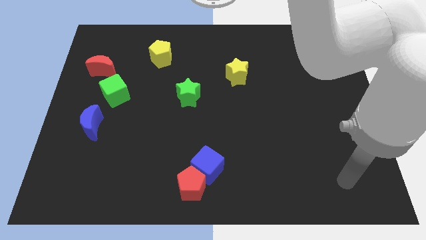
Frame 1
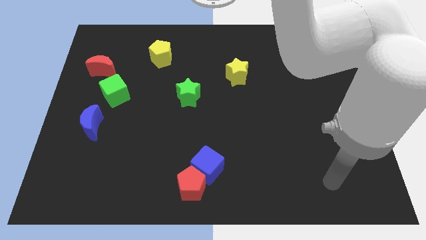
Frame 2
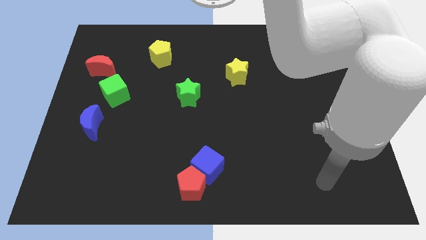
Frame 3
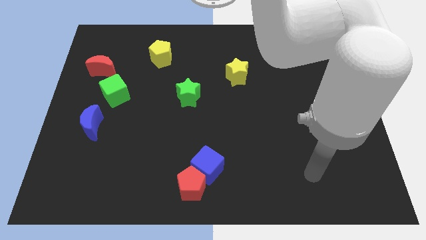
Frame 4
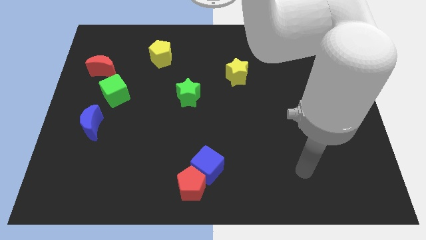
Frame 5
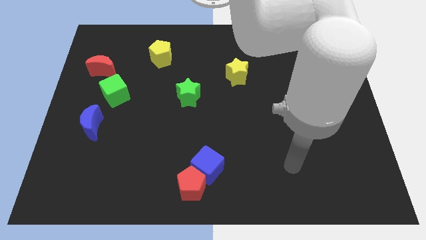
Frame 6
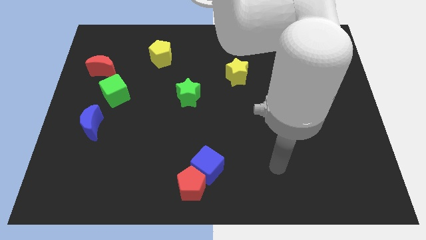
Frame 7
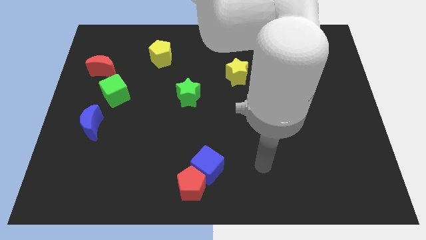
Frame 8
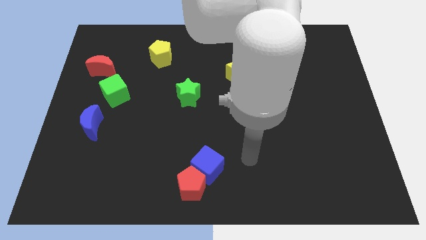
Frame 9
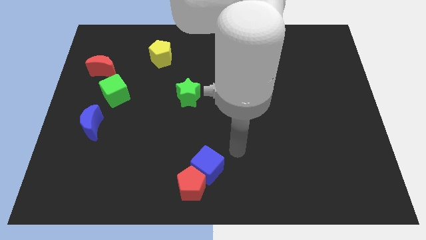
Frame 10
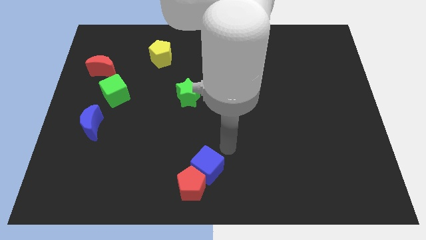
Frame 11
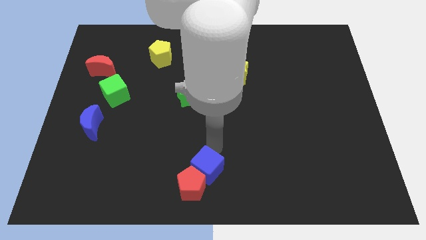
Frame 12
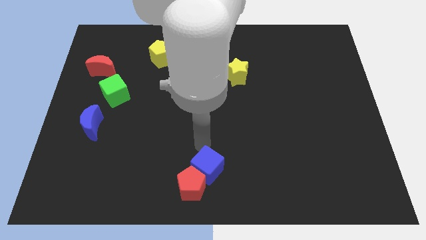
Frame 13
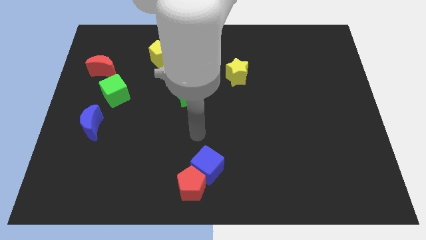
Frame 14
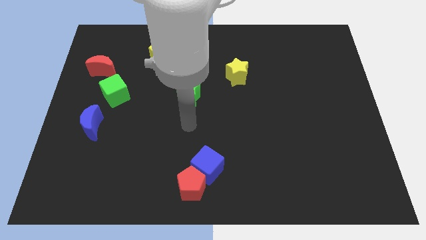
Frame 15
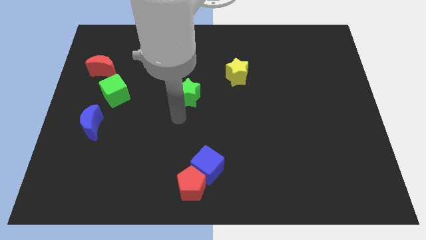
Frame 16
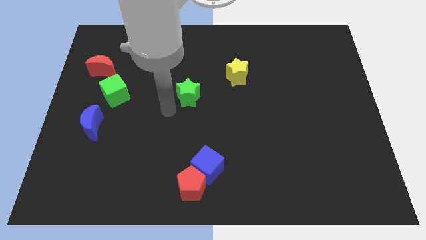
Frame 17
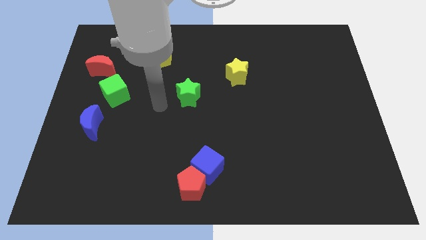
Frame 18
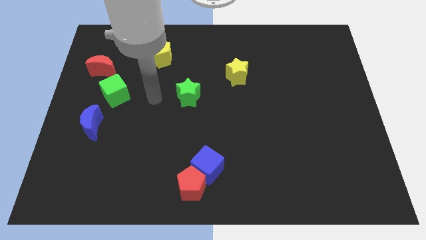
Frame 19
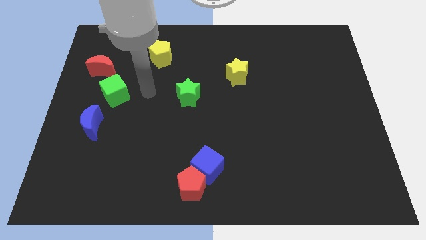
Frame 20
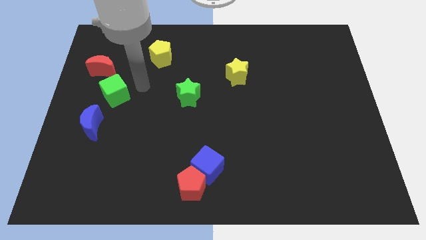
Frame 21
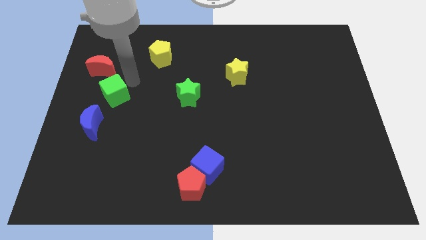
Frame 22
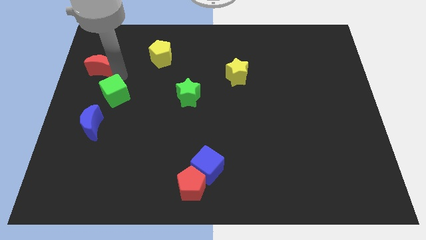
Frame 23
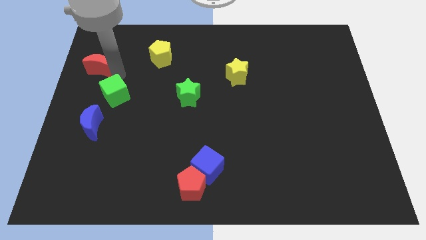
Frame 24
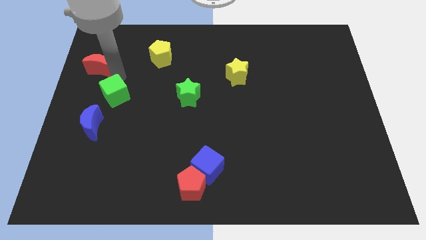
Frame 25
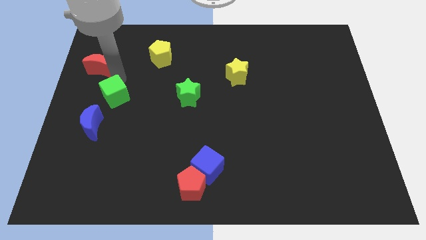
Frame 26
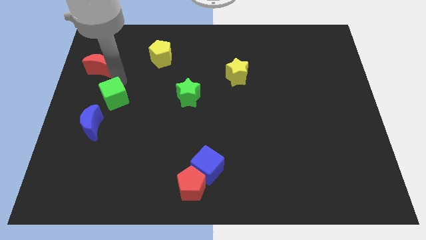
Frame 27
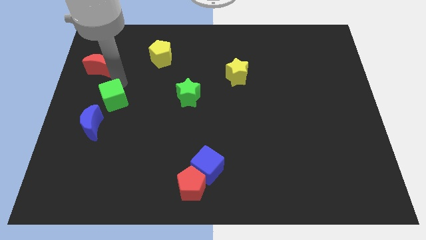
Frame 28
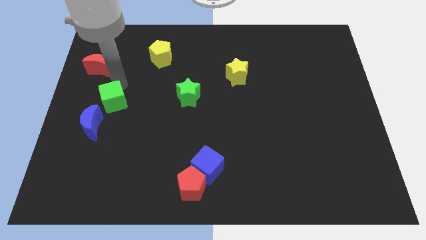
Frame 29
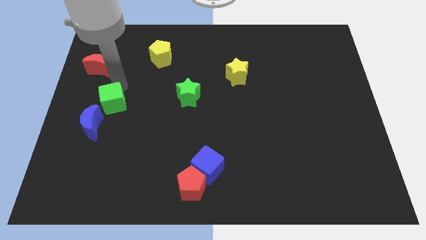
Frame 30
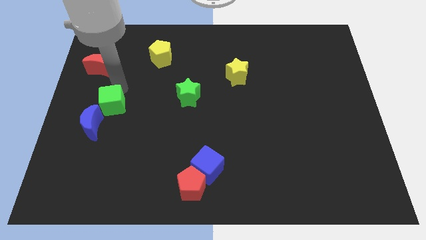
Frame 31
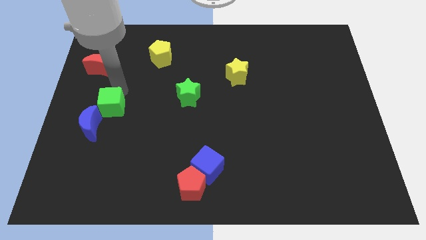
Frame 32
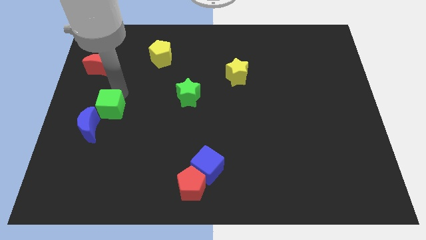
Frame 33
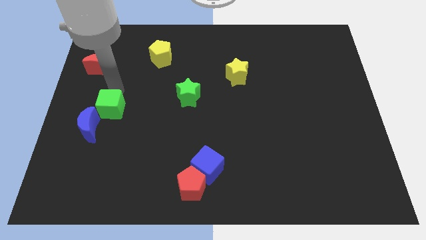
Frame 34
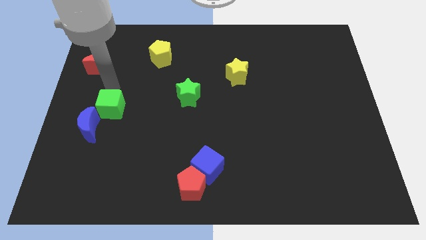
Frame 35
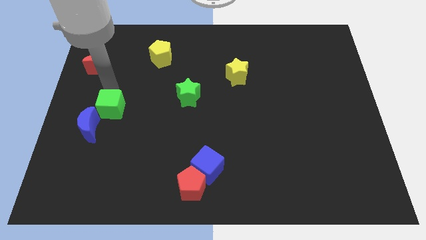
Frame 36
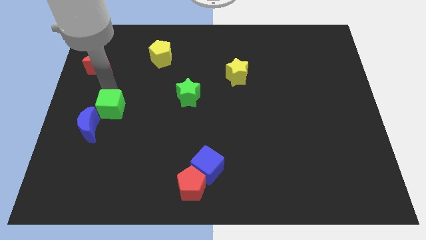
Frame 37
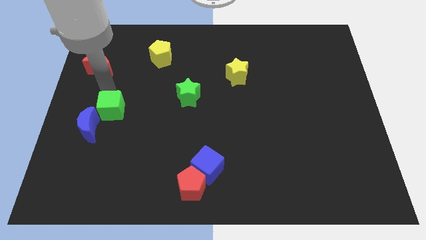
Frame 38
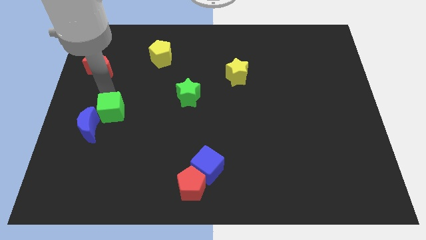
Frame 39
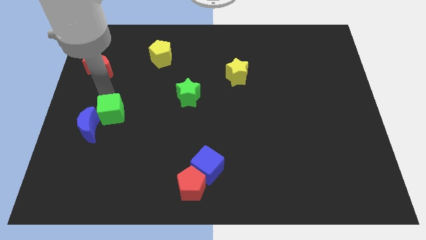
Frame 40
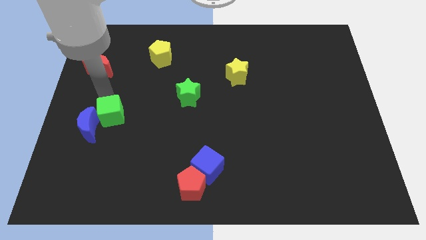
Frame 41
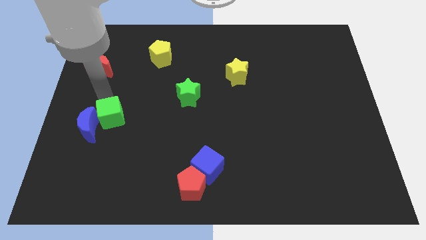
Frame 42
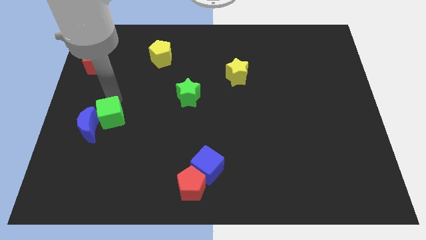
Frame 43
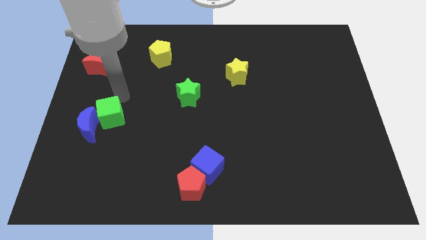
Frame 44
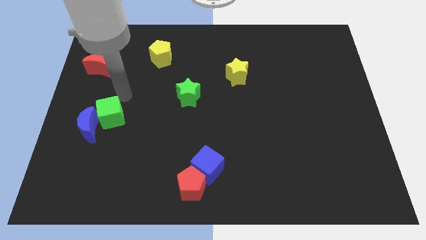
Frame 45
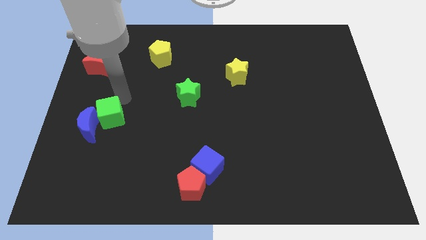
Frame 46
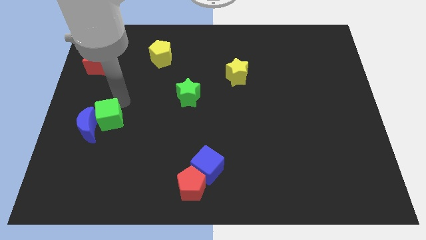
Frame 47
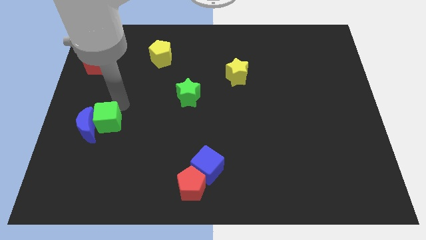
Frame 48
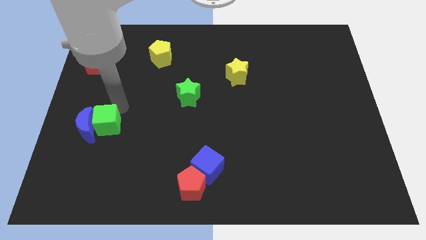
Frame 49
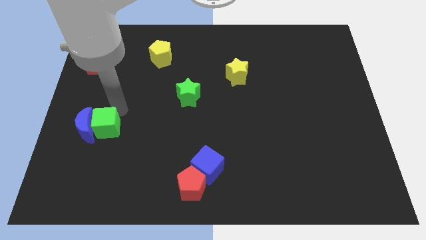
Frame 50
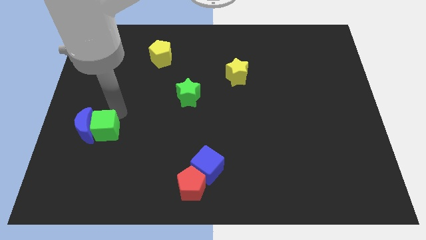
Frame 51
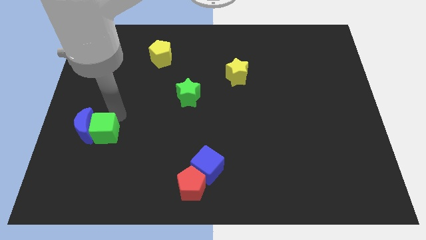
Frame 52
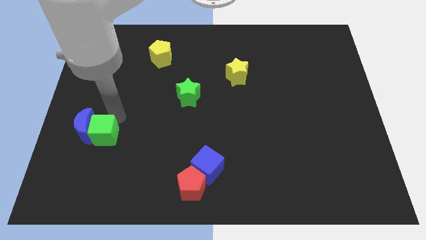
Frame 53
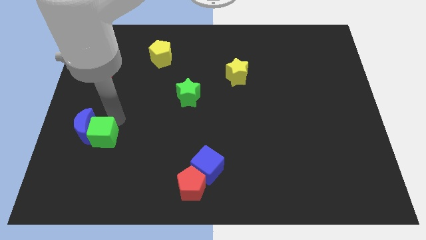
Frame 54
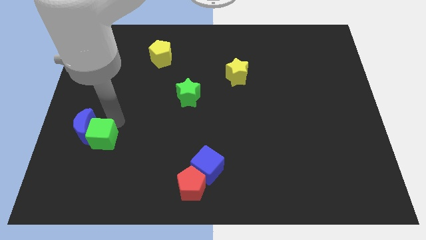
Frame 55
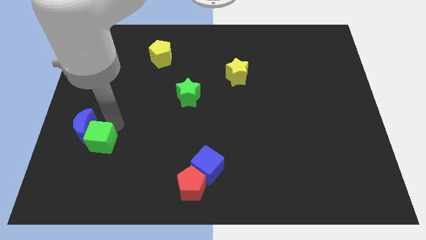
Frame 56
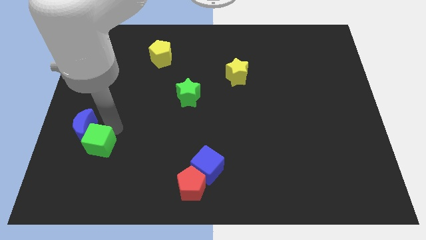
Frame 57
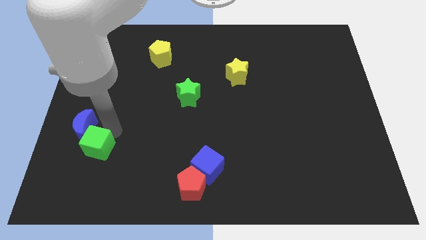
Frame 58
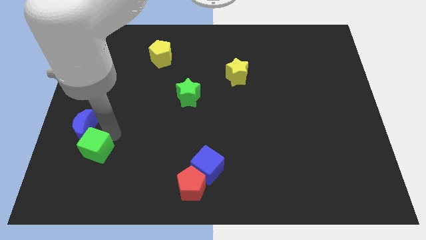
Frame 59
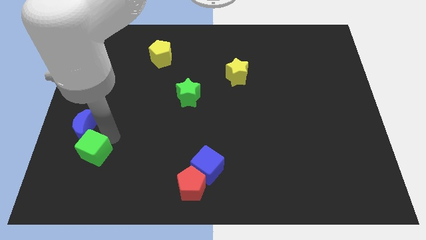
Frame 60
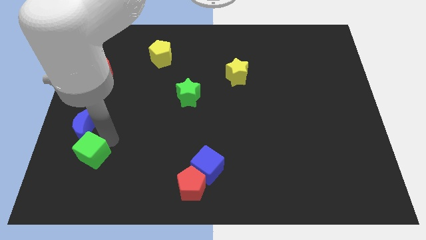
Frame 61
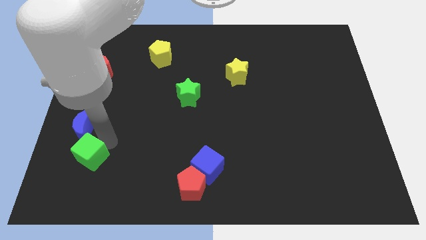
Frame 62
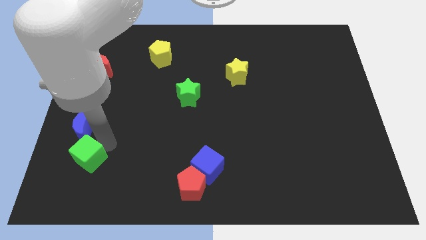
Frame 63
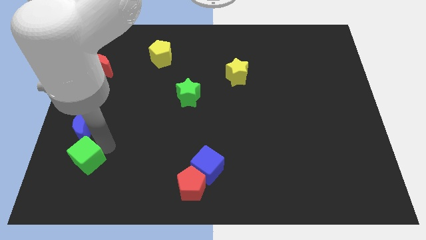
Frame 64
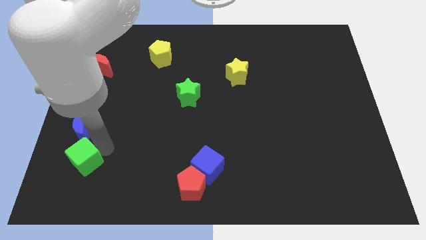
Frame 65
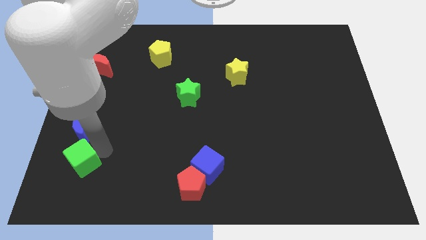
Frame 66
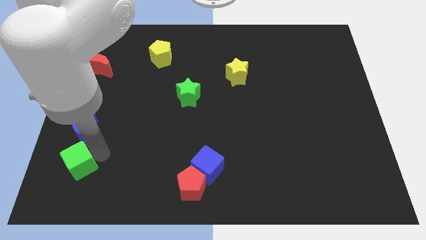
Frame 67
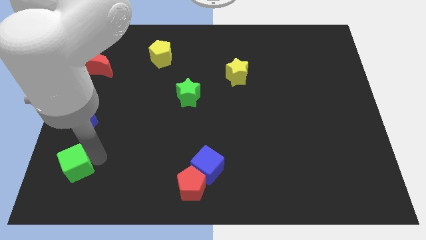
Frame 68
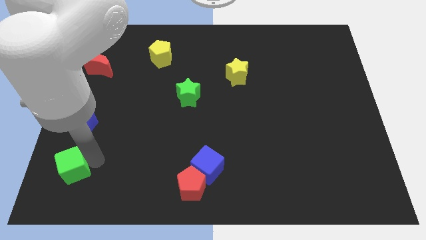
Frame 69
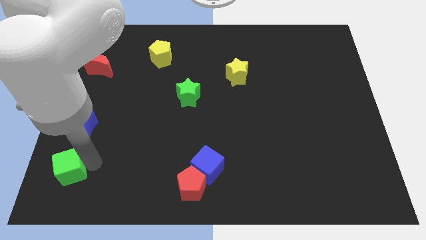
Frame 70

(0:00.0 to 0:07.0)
slide the green cube to the bottom left
